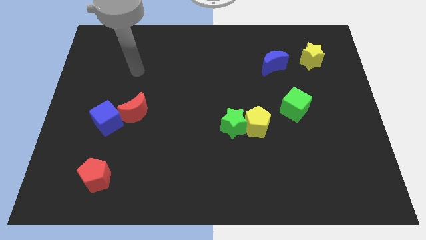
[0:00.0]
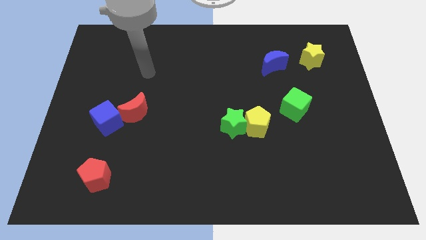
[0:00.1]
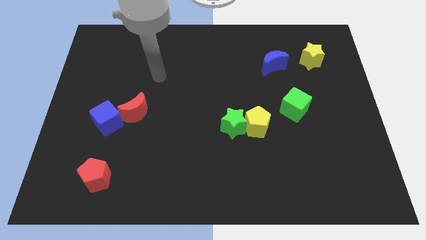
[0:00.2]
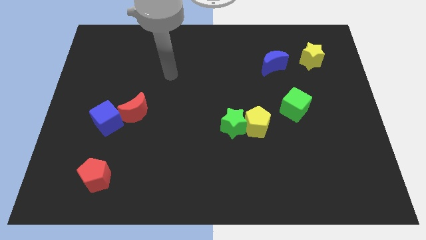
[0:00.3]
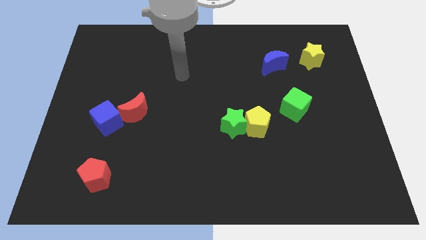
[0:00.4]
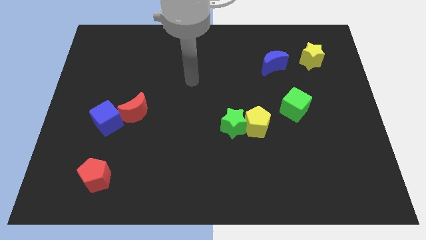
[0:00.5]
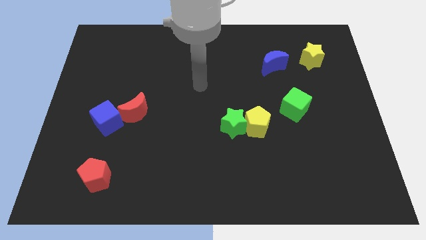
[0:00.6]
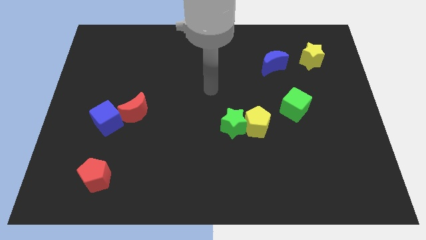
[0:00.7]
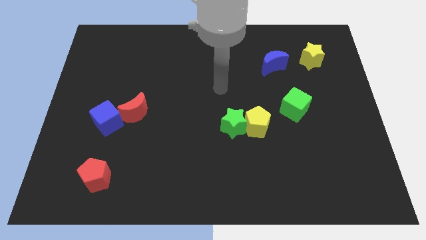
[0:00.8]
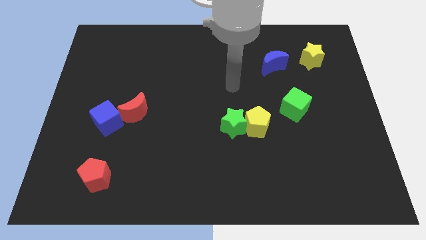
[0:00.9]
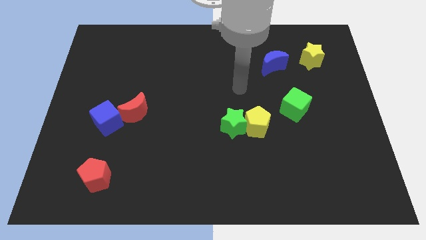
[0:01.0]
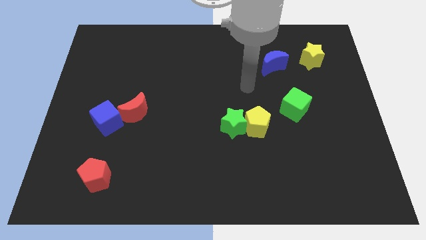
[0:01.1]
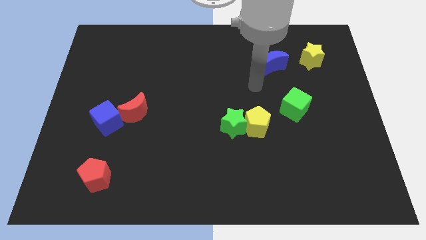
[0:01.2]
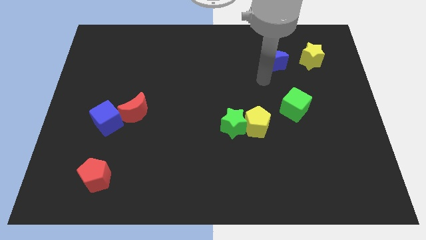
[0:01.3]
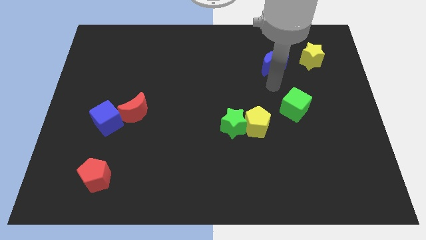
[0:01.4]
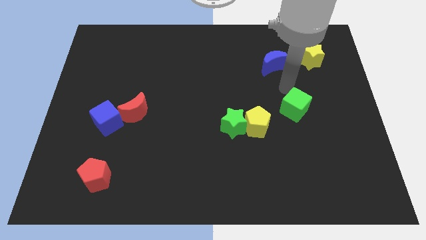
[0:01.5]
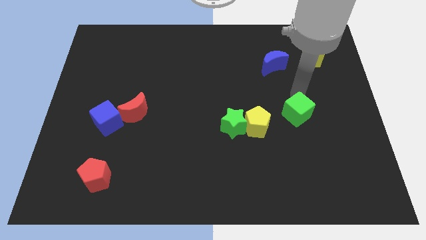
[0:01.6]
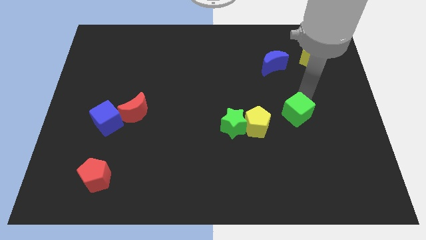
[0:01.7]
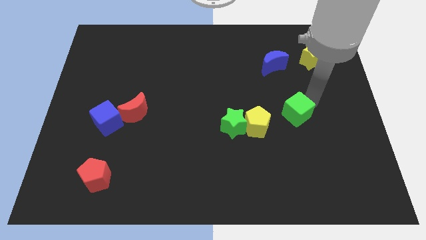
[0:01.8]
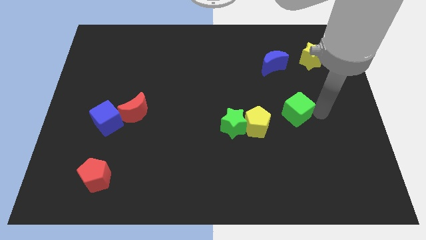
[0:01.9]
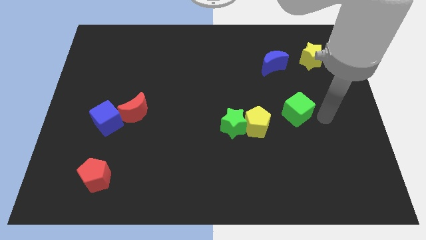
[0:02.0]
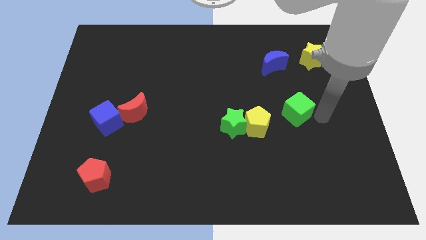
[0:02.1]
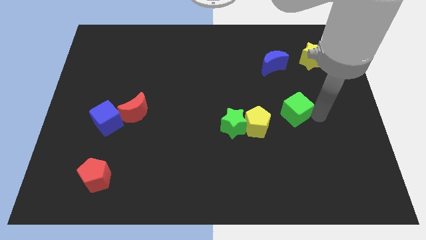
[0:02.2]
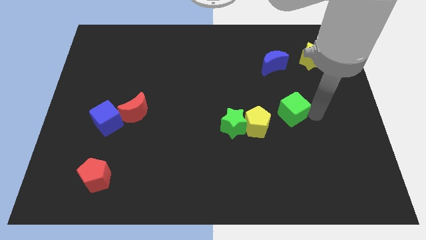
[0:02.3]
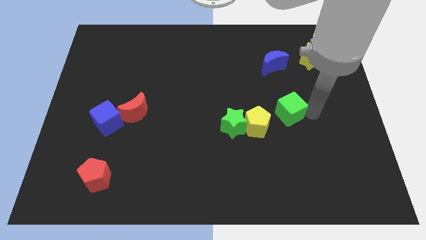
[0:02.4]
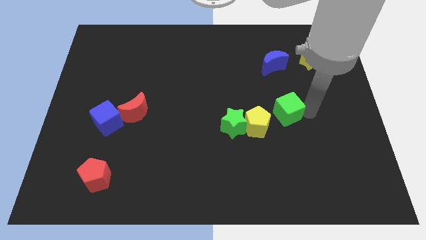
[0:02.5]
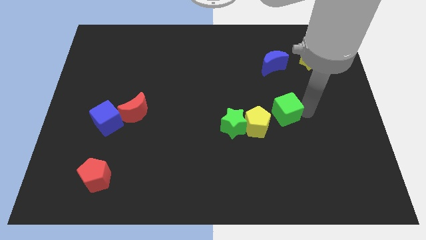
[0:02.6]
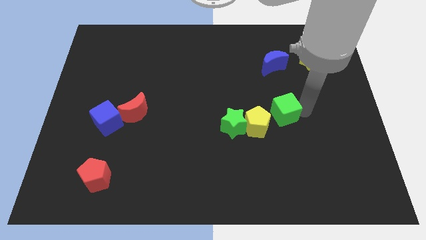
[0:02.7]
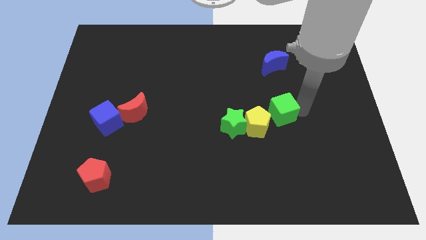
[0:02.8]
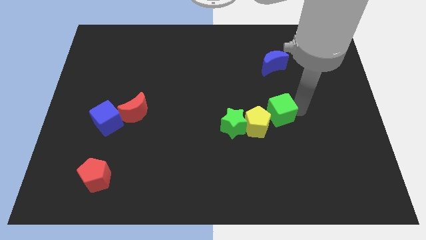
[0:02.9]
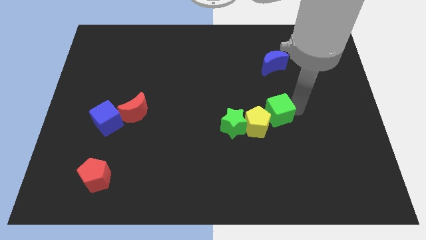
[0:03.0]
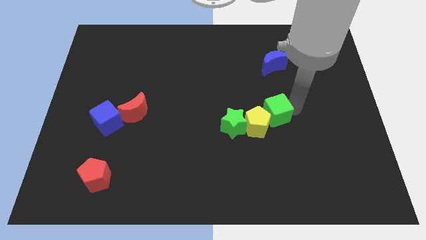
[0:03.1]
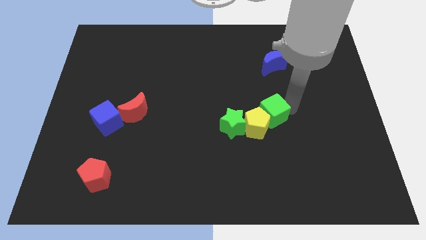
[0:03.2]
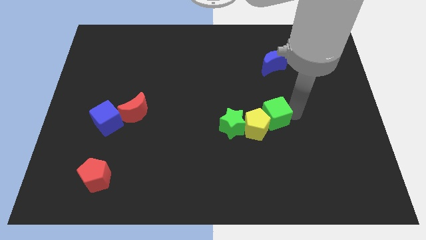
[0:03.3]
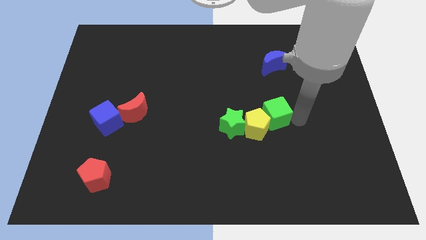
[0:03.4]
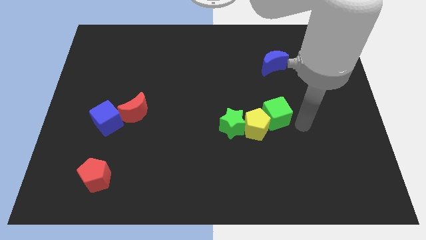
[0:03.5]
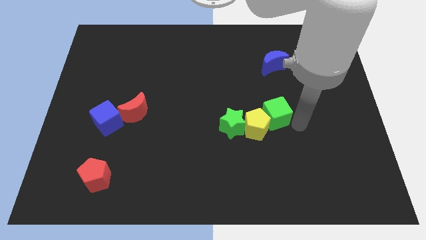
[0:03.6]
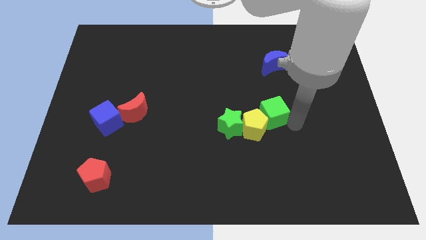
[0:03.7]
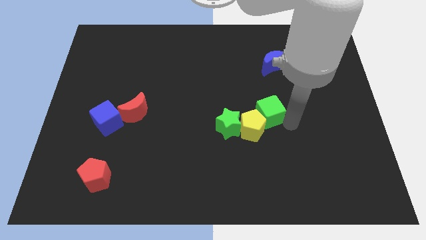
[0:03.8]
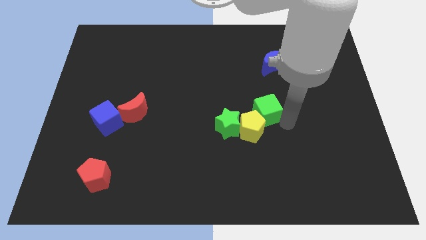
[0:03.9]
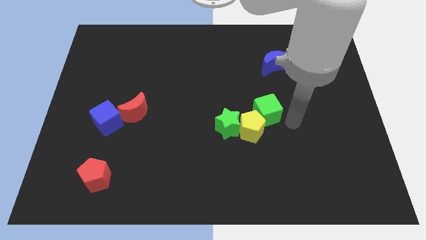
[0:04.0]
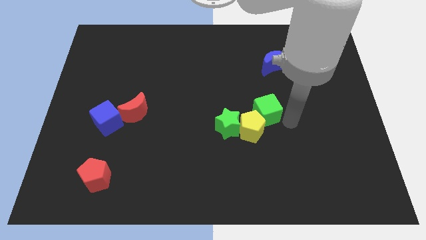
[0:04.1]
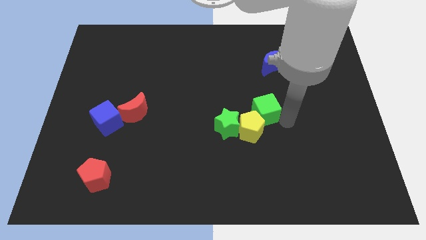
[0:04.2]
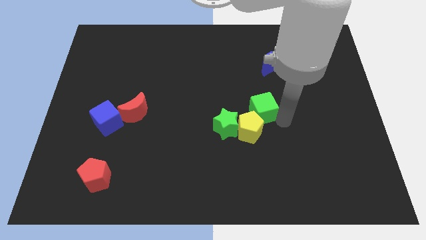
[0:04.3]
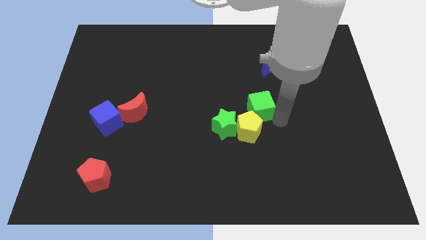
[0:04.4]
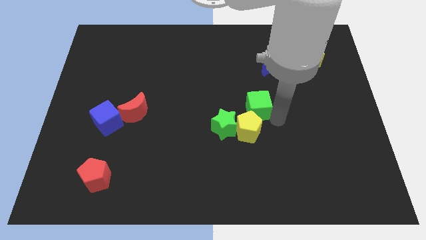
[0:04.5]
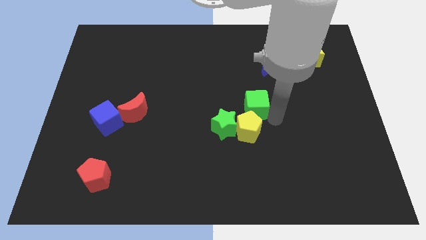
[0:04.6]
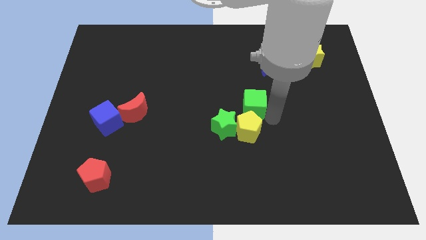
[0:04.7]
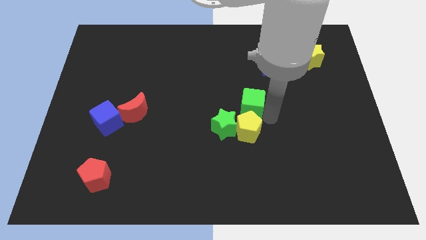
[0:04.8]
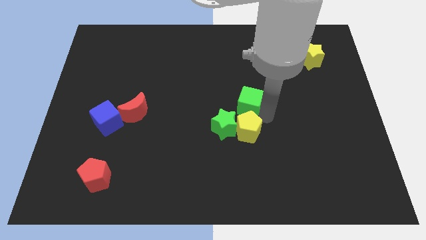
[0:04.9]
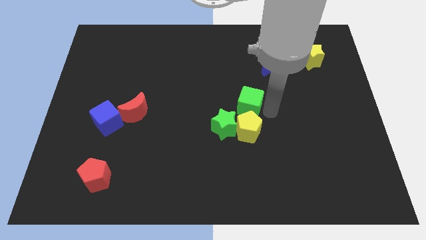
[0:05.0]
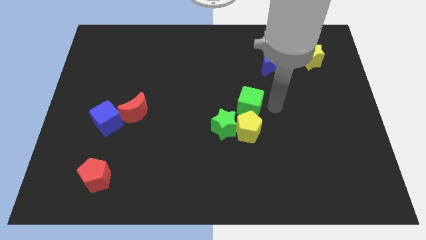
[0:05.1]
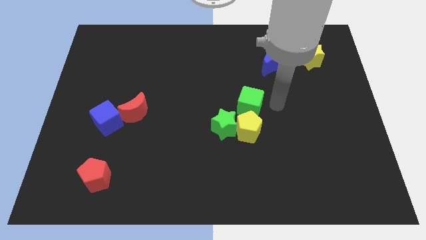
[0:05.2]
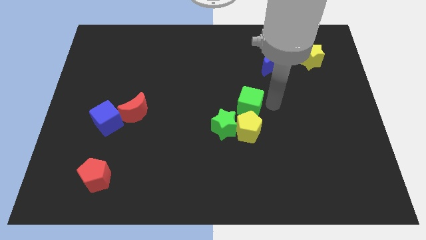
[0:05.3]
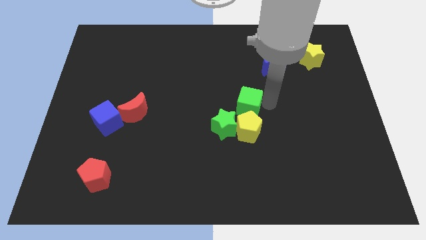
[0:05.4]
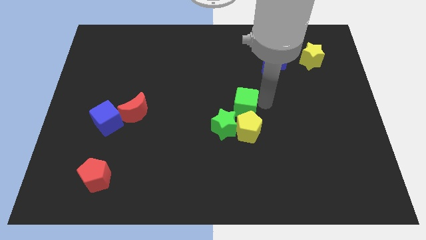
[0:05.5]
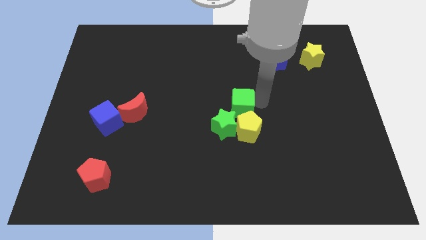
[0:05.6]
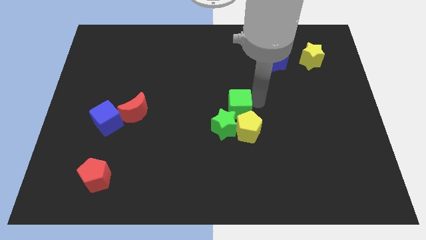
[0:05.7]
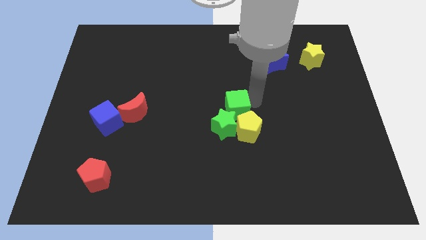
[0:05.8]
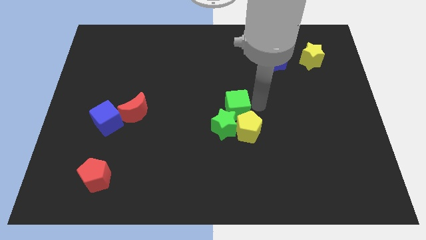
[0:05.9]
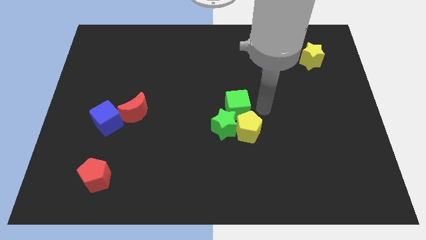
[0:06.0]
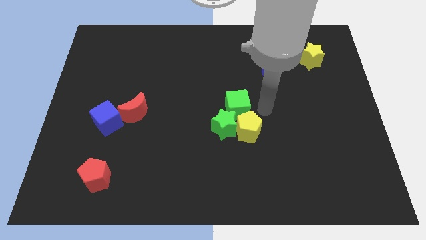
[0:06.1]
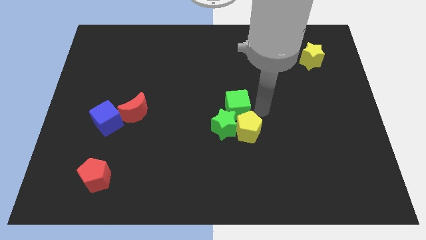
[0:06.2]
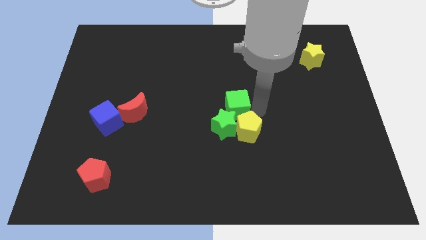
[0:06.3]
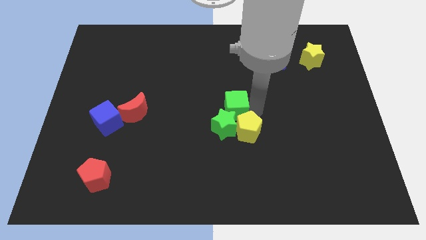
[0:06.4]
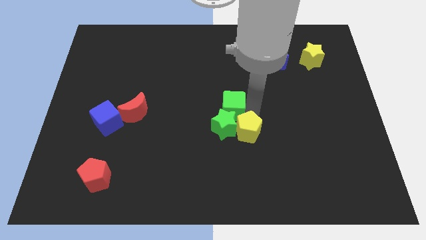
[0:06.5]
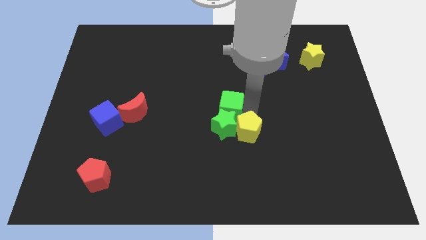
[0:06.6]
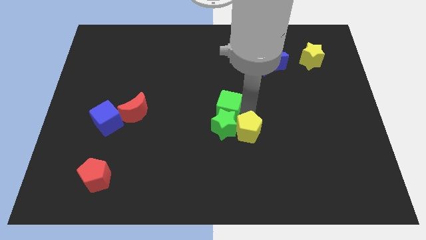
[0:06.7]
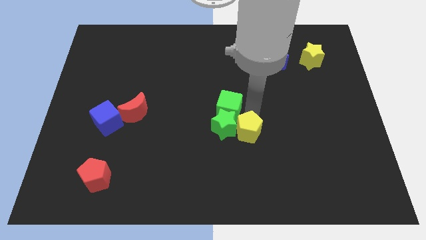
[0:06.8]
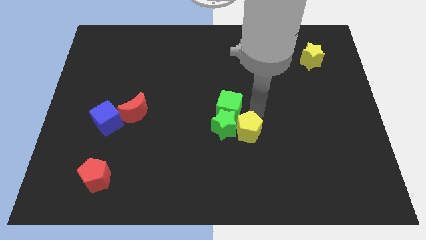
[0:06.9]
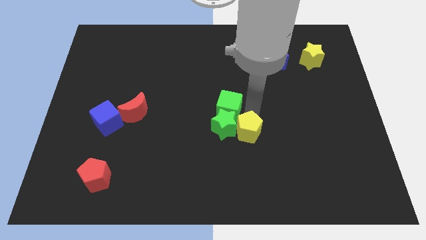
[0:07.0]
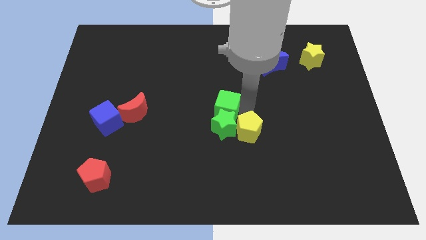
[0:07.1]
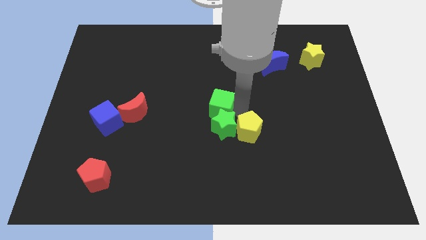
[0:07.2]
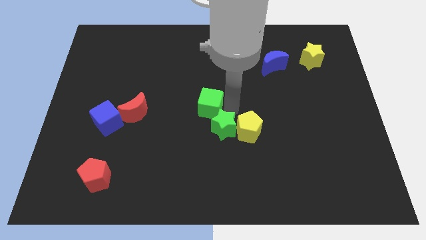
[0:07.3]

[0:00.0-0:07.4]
slide the green cube to the left

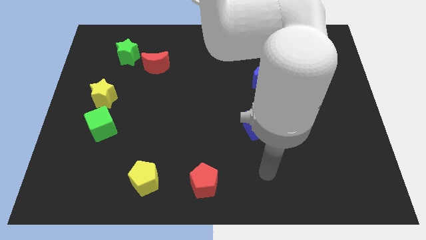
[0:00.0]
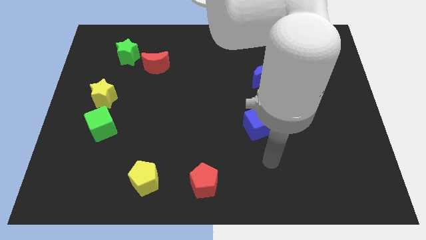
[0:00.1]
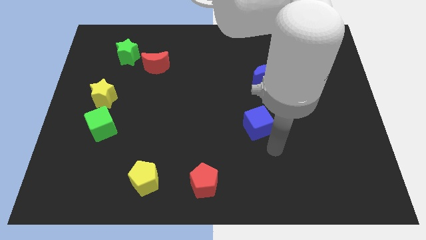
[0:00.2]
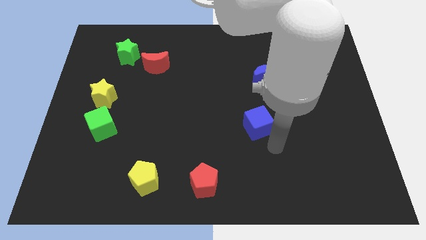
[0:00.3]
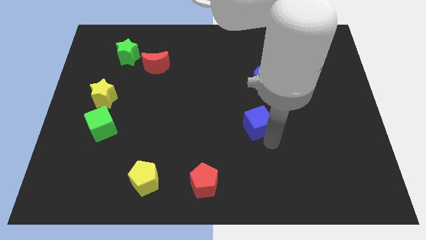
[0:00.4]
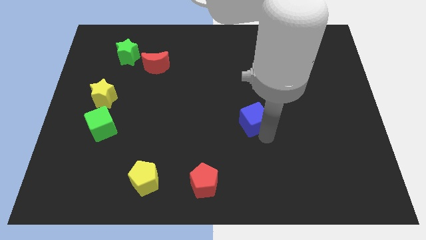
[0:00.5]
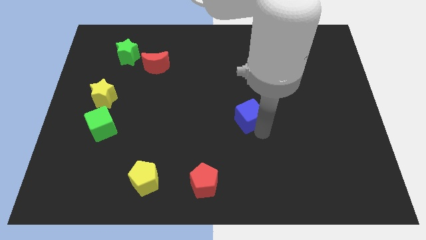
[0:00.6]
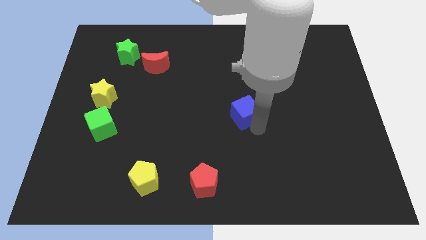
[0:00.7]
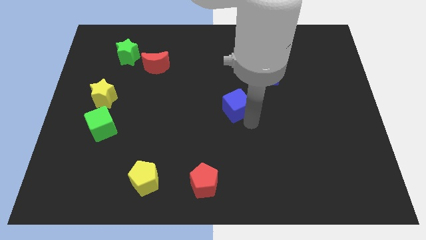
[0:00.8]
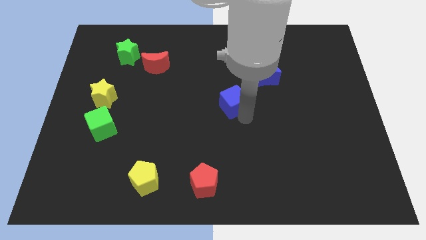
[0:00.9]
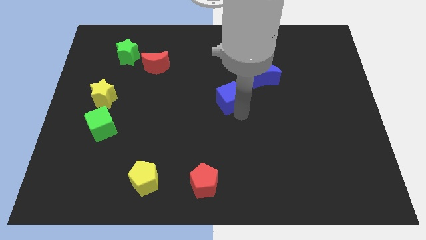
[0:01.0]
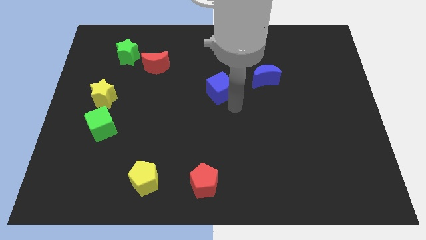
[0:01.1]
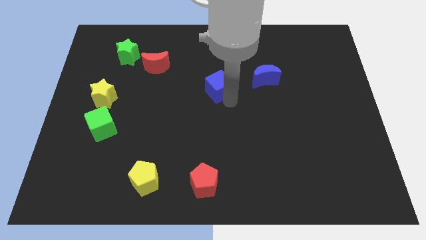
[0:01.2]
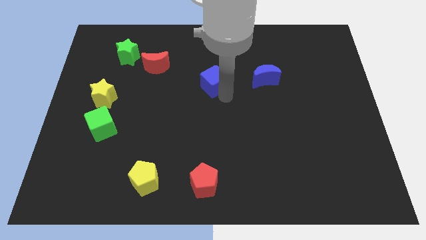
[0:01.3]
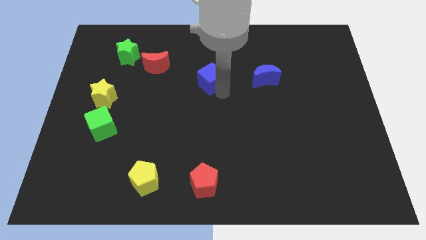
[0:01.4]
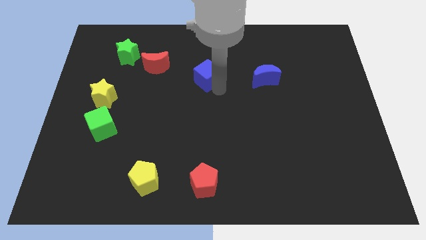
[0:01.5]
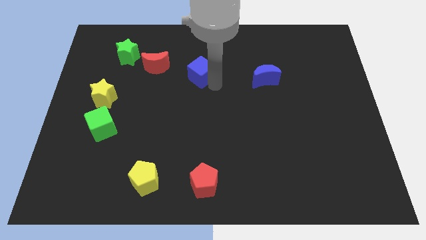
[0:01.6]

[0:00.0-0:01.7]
move the blue cube up and then left
